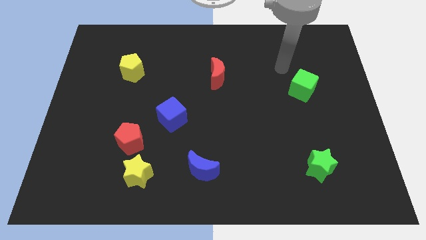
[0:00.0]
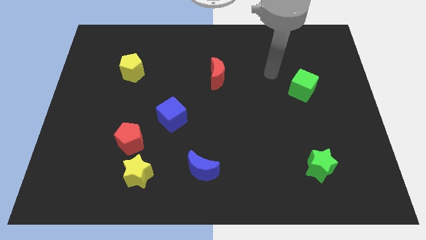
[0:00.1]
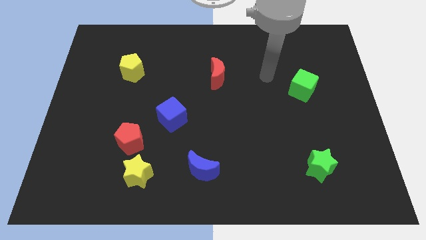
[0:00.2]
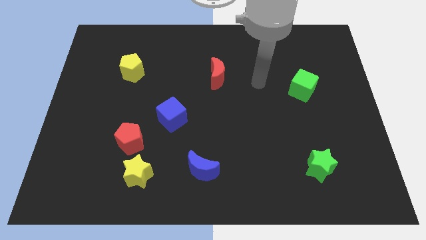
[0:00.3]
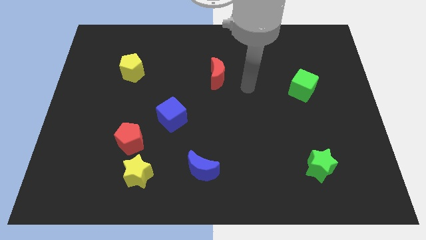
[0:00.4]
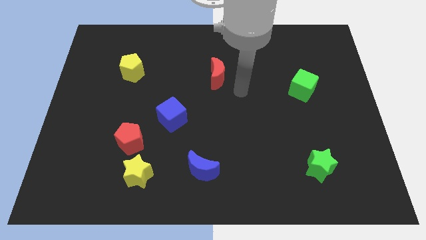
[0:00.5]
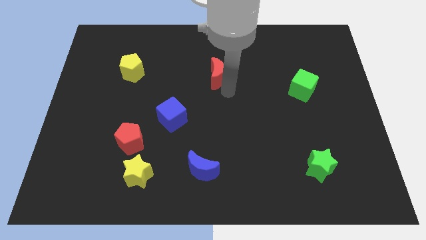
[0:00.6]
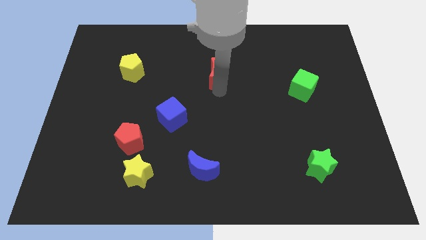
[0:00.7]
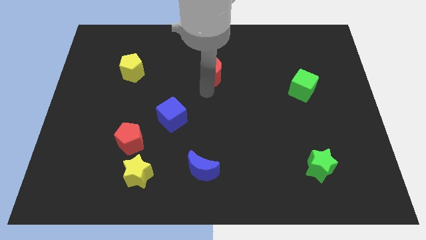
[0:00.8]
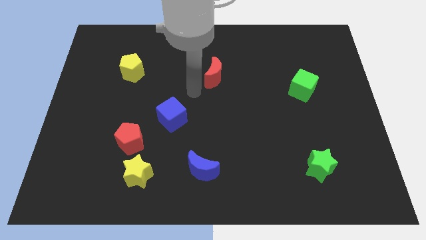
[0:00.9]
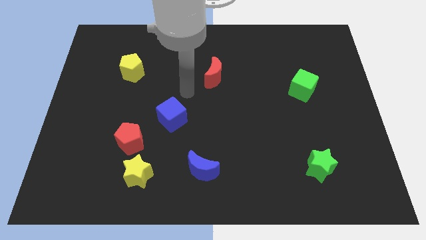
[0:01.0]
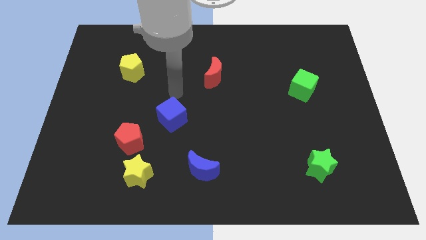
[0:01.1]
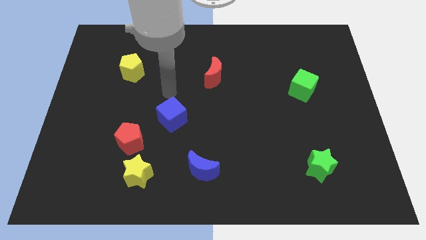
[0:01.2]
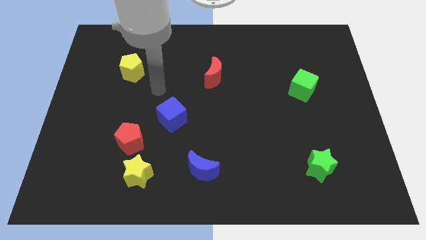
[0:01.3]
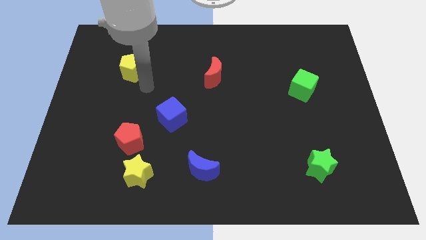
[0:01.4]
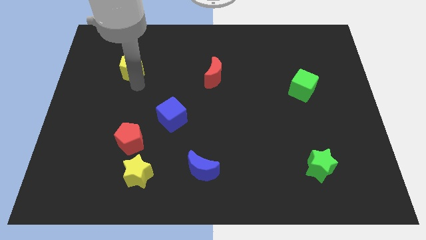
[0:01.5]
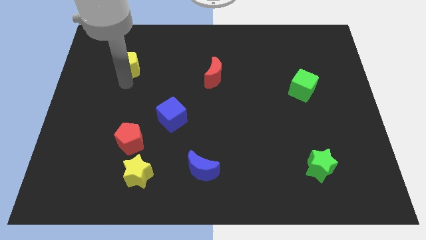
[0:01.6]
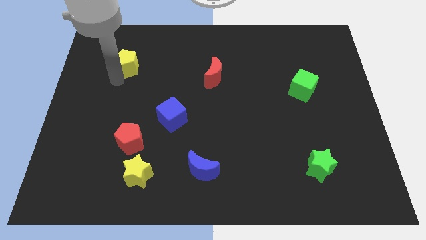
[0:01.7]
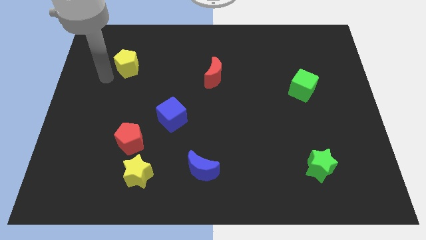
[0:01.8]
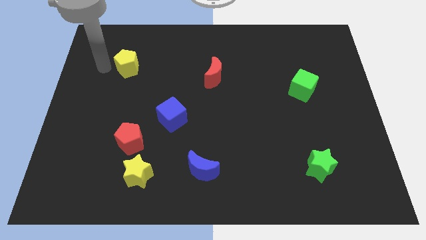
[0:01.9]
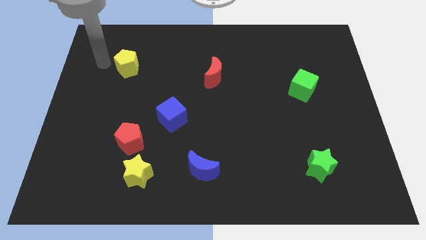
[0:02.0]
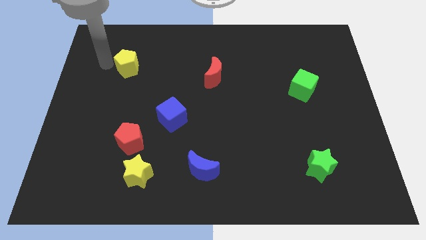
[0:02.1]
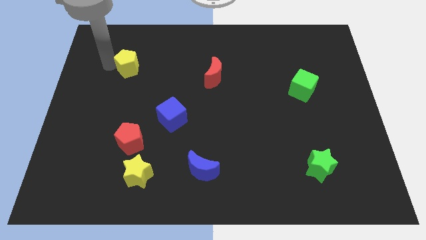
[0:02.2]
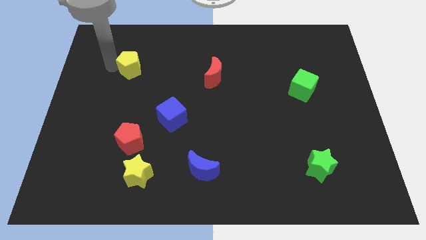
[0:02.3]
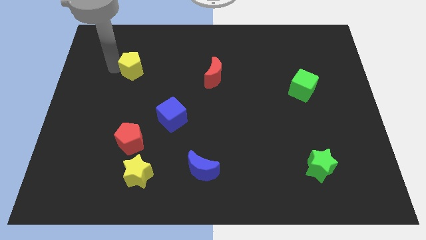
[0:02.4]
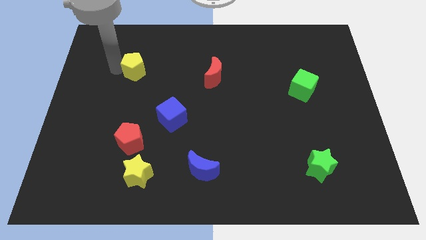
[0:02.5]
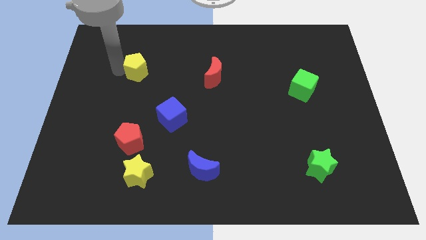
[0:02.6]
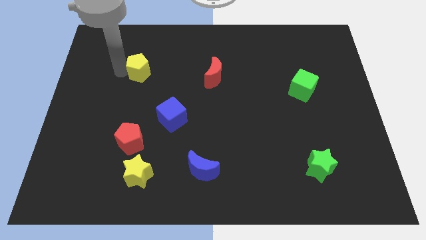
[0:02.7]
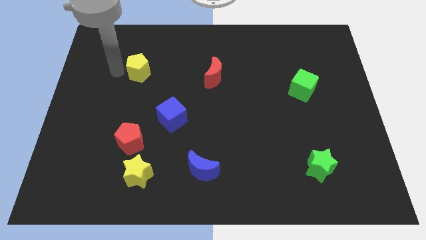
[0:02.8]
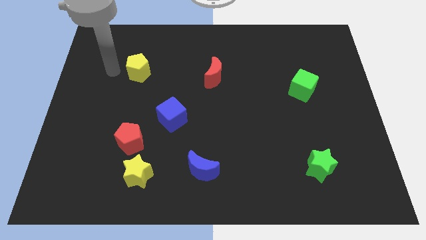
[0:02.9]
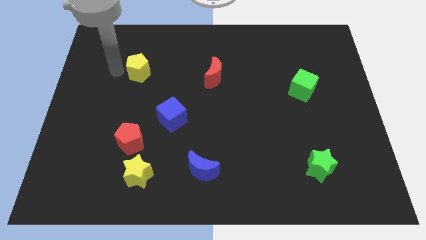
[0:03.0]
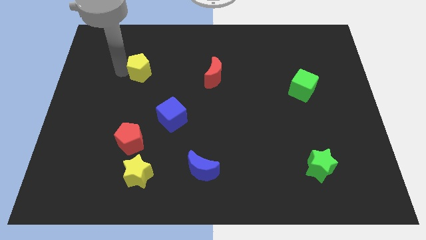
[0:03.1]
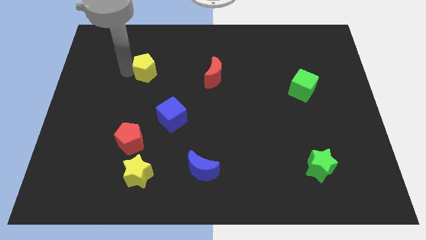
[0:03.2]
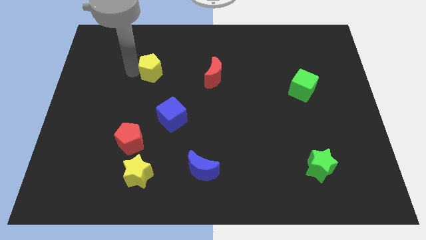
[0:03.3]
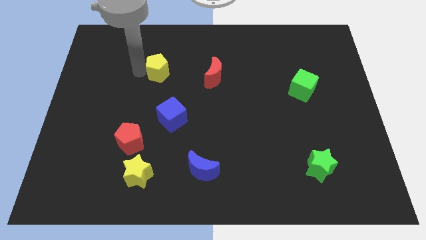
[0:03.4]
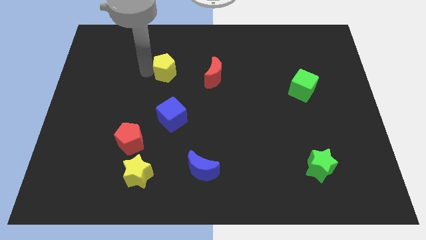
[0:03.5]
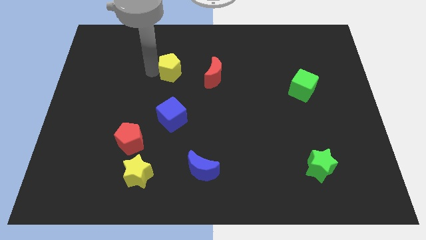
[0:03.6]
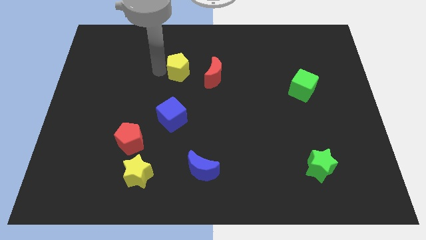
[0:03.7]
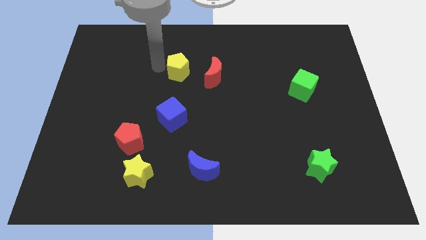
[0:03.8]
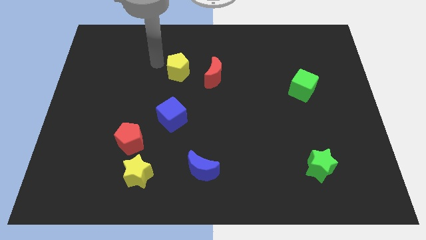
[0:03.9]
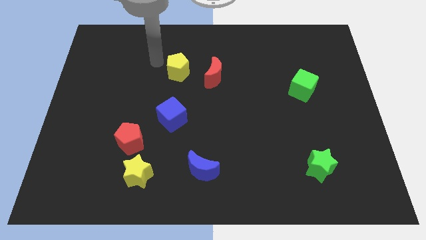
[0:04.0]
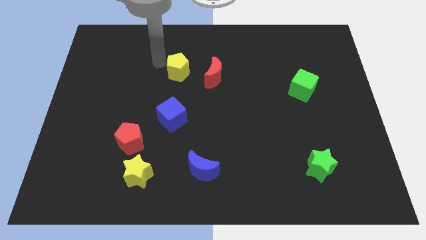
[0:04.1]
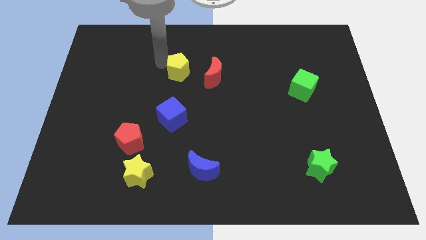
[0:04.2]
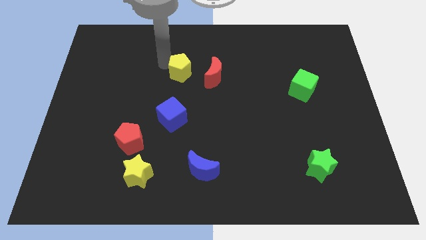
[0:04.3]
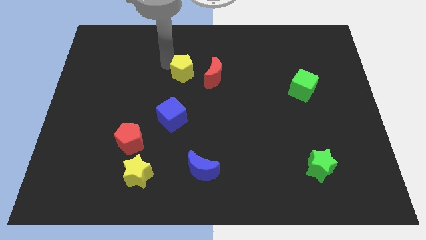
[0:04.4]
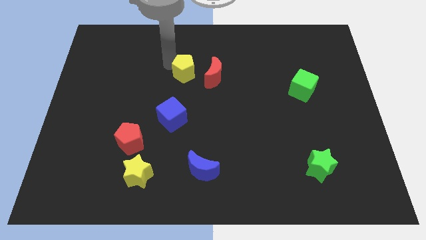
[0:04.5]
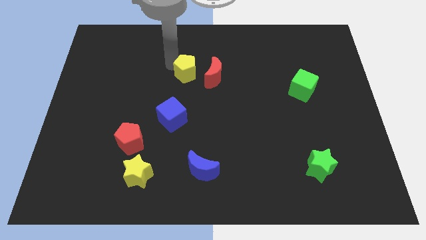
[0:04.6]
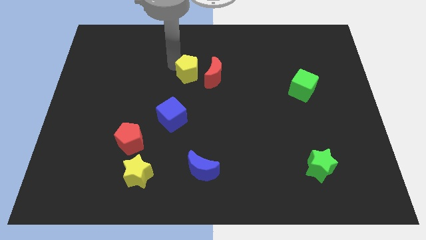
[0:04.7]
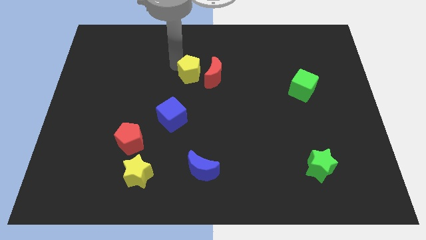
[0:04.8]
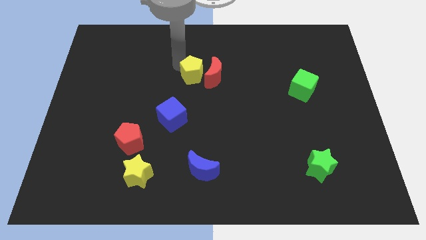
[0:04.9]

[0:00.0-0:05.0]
push the yellow pentagon to the red moon

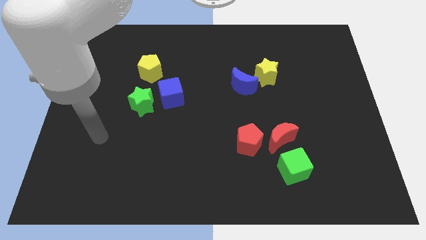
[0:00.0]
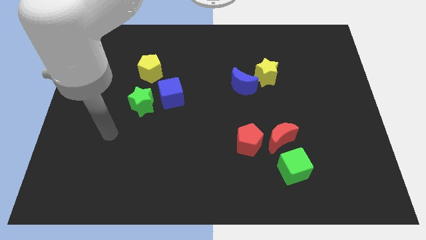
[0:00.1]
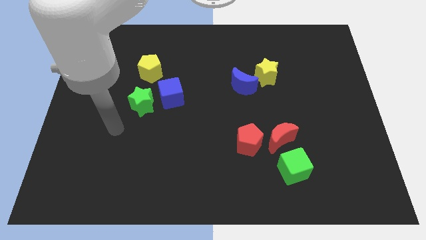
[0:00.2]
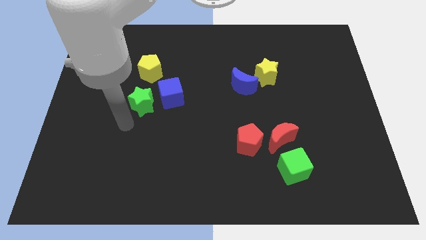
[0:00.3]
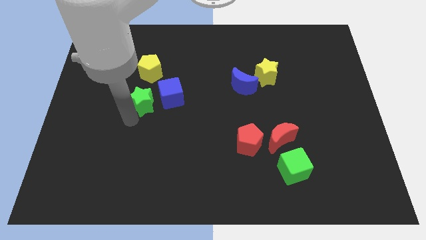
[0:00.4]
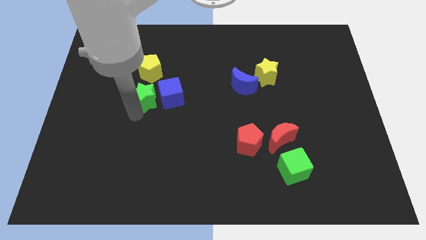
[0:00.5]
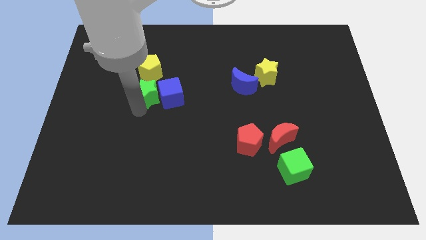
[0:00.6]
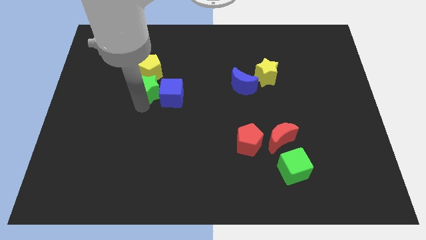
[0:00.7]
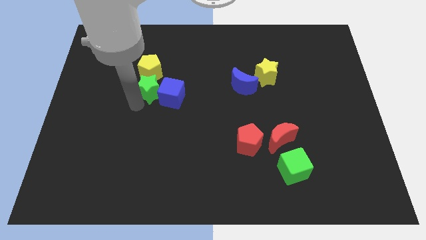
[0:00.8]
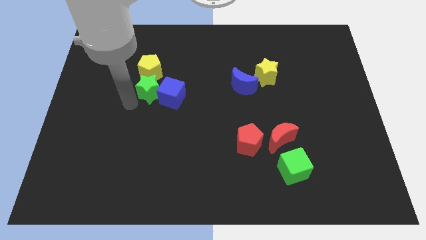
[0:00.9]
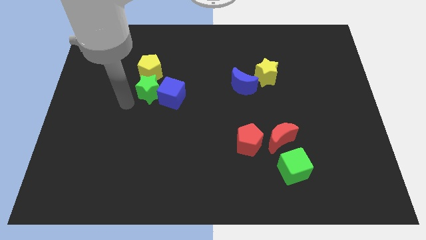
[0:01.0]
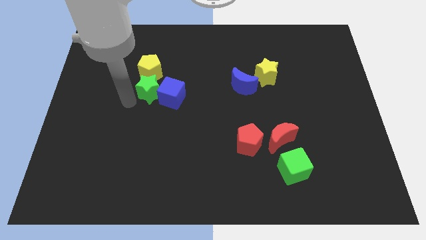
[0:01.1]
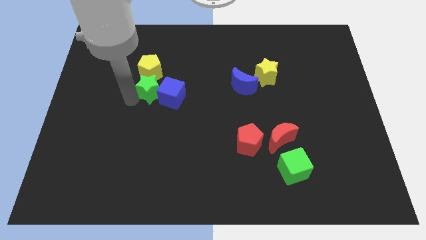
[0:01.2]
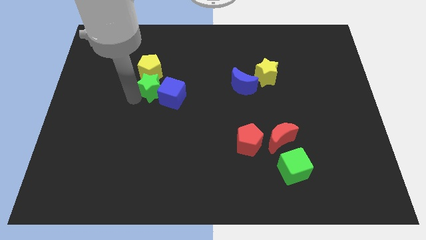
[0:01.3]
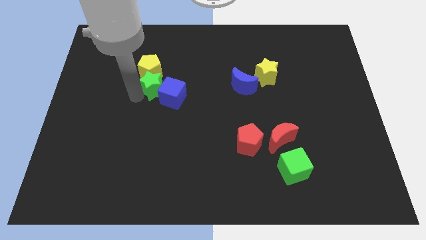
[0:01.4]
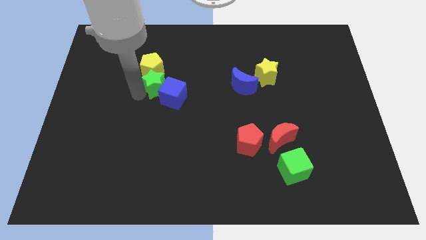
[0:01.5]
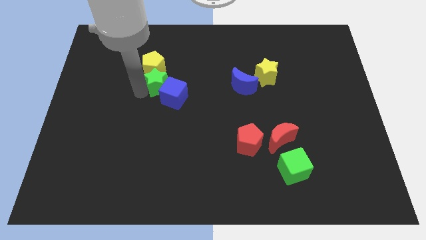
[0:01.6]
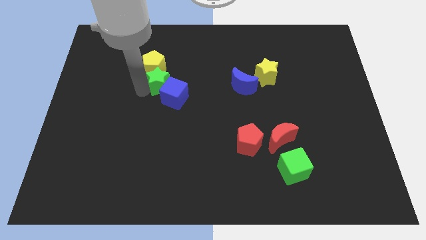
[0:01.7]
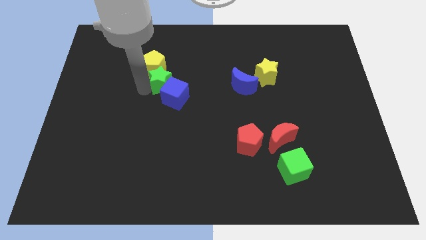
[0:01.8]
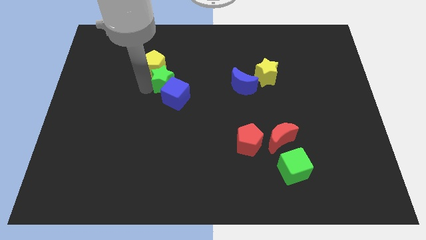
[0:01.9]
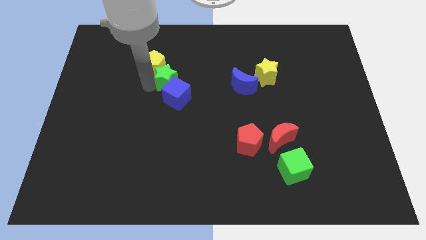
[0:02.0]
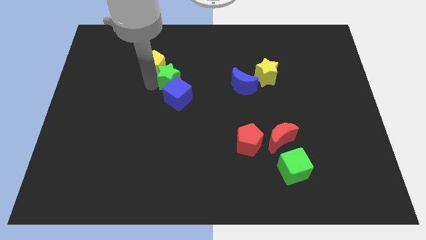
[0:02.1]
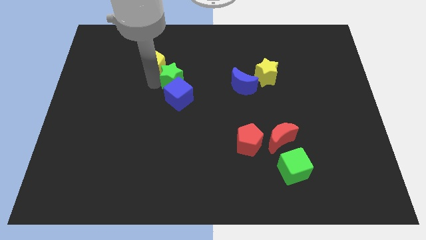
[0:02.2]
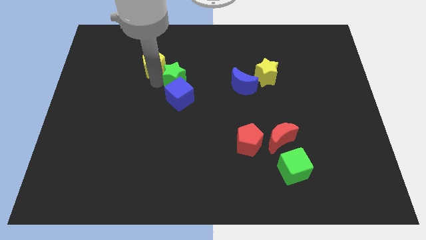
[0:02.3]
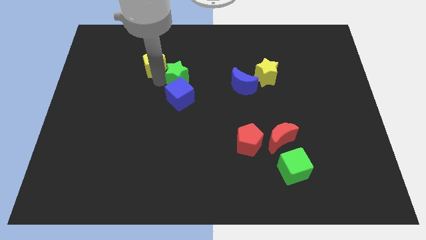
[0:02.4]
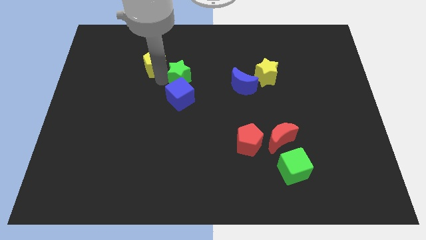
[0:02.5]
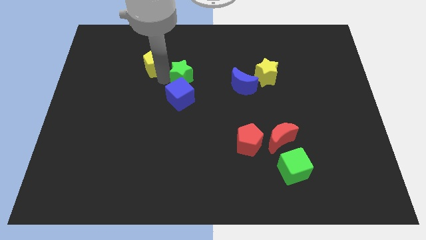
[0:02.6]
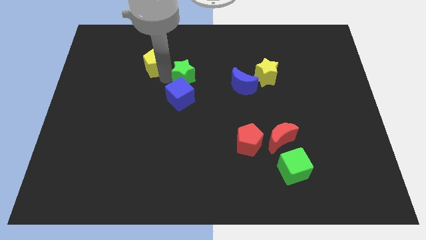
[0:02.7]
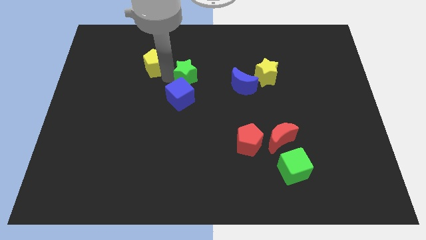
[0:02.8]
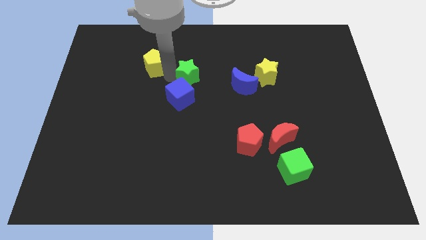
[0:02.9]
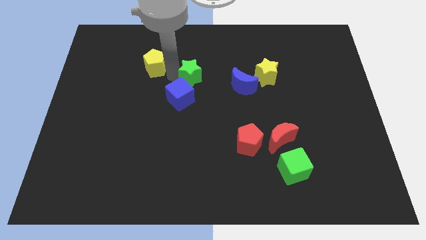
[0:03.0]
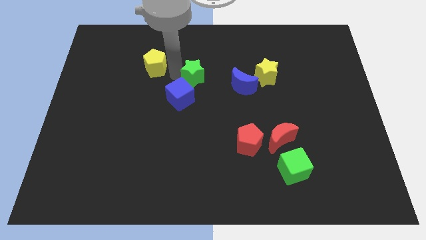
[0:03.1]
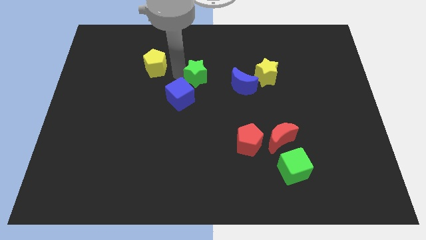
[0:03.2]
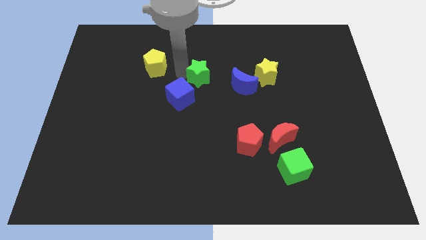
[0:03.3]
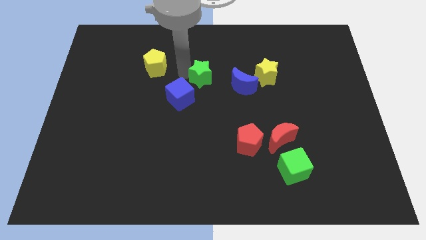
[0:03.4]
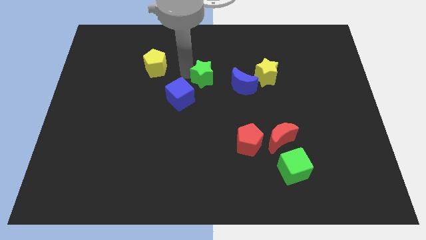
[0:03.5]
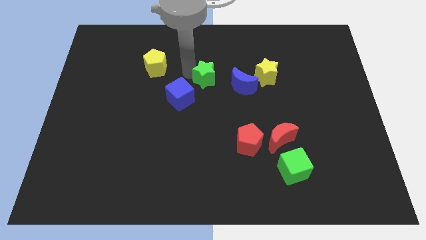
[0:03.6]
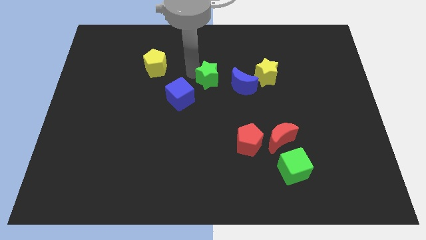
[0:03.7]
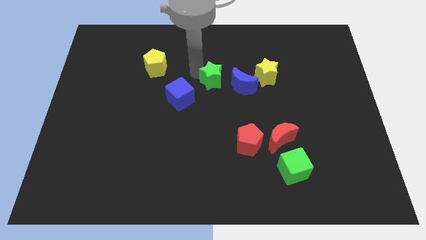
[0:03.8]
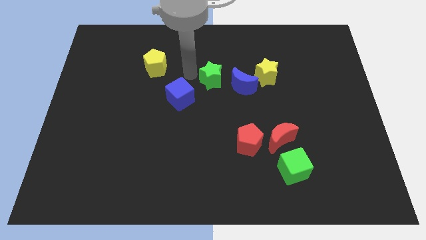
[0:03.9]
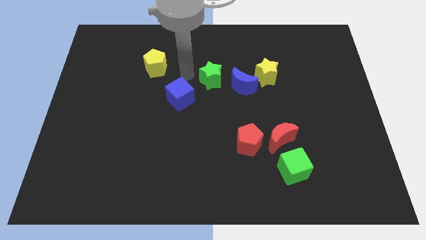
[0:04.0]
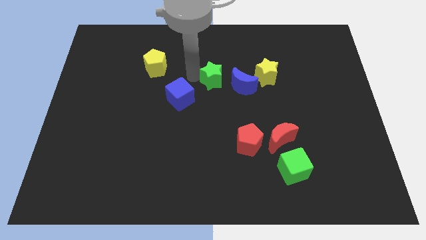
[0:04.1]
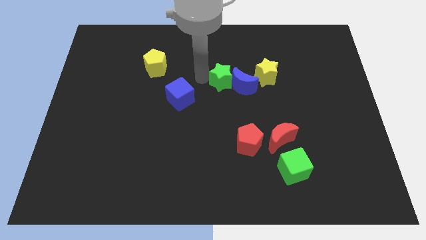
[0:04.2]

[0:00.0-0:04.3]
move the green star towards the blue moon
